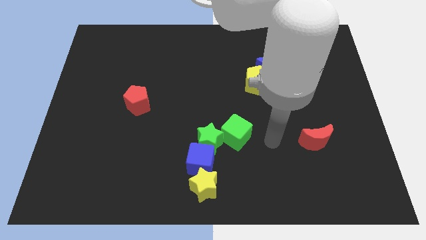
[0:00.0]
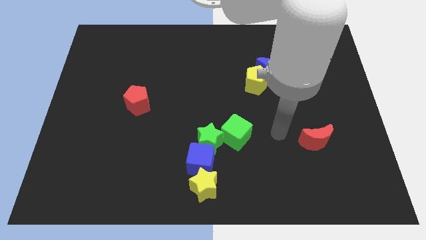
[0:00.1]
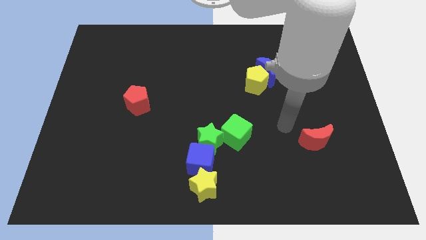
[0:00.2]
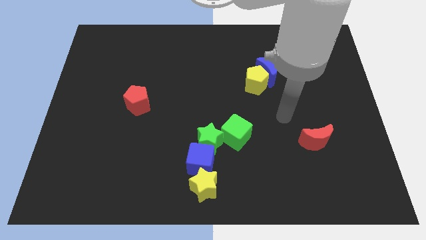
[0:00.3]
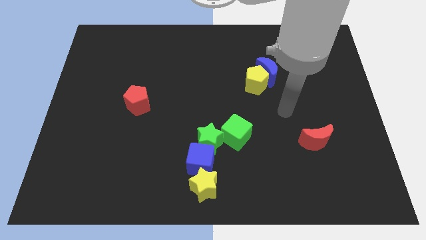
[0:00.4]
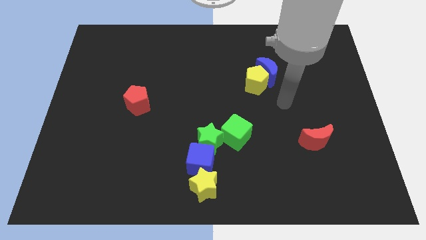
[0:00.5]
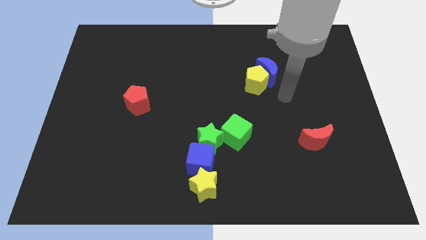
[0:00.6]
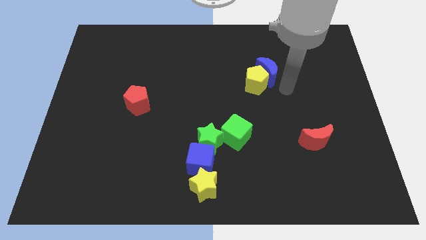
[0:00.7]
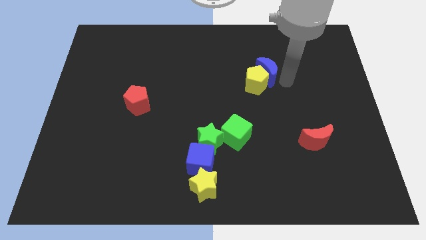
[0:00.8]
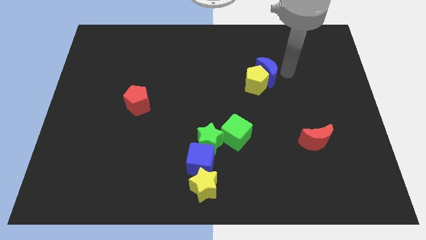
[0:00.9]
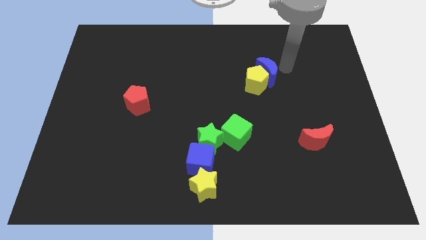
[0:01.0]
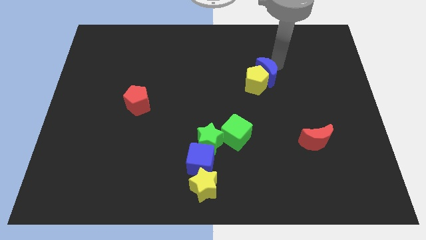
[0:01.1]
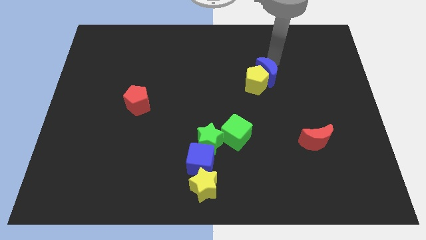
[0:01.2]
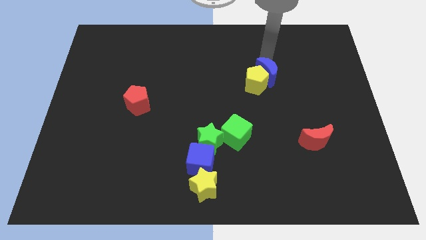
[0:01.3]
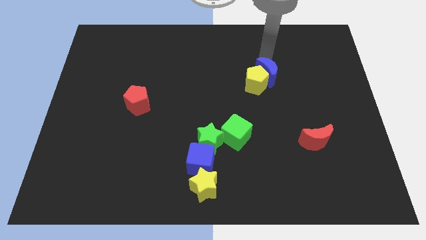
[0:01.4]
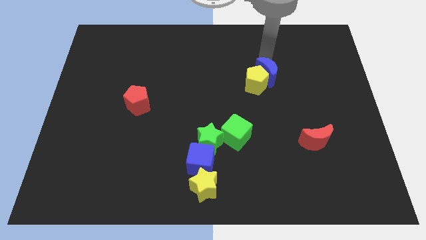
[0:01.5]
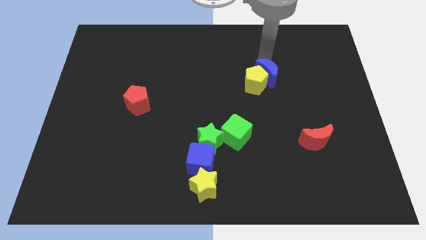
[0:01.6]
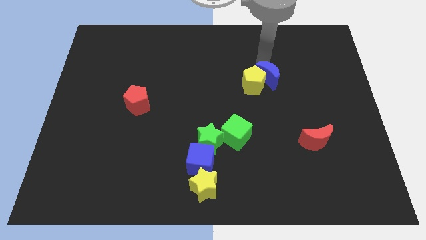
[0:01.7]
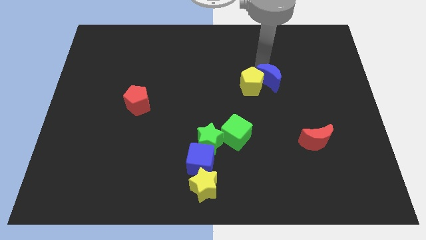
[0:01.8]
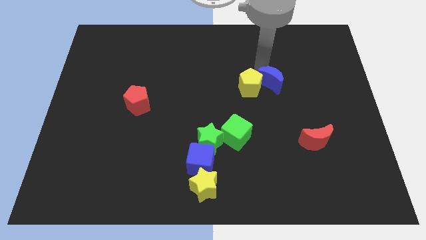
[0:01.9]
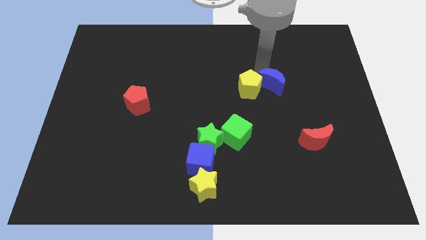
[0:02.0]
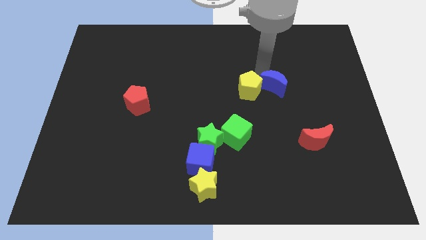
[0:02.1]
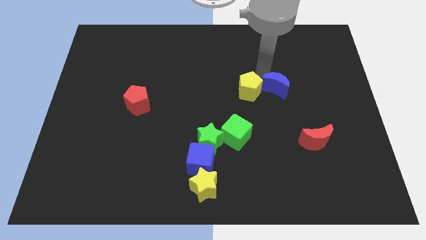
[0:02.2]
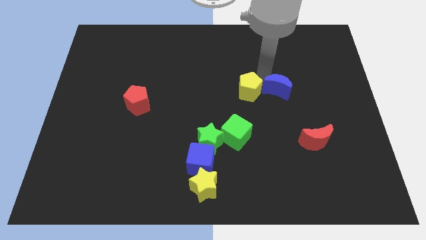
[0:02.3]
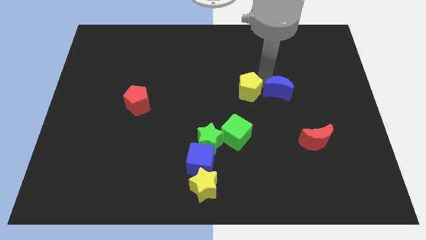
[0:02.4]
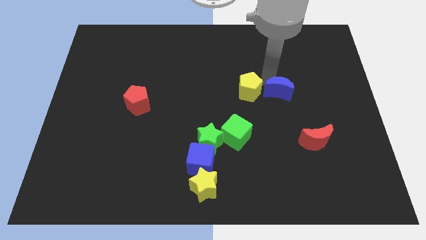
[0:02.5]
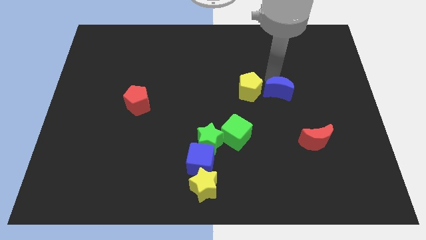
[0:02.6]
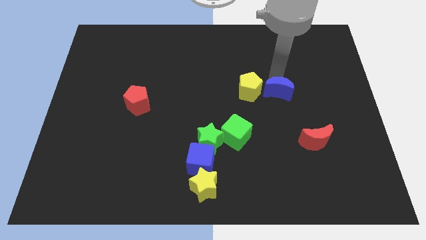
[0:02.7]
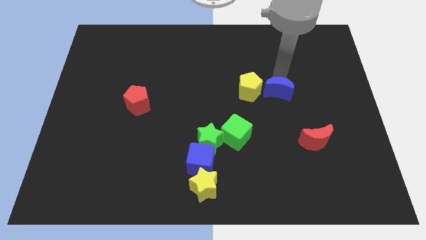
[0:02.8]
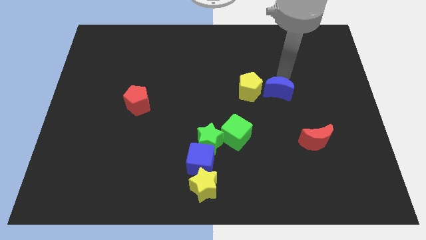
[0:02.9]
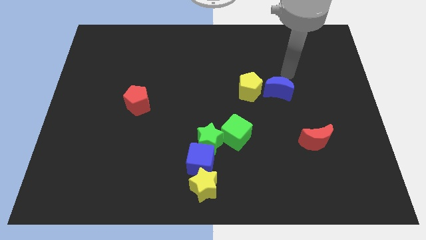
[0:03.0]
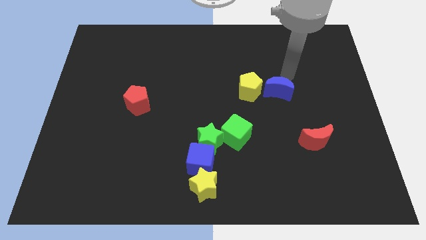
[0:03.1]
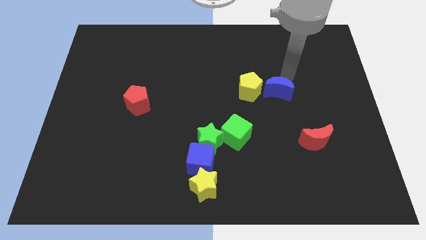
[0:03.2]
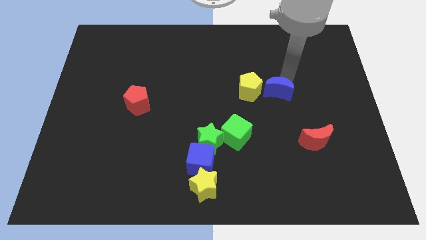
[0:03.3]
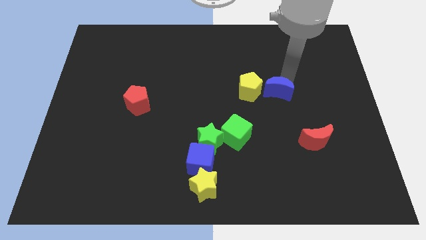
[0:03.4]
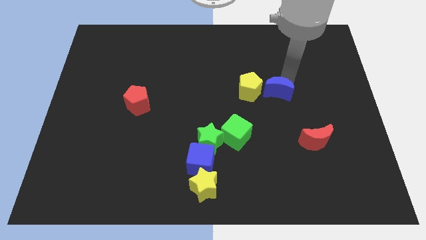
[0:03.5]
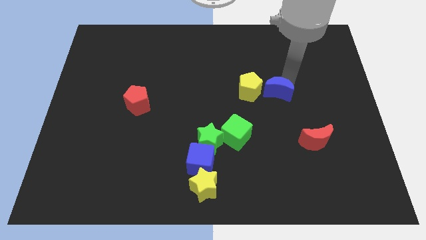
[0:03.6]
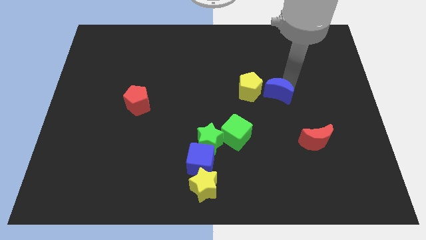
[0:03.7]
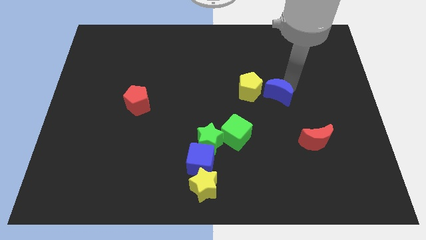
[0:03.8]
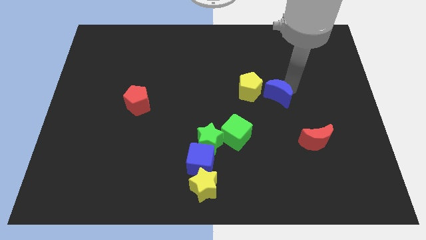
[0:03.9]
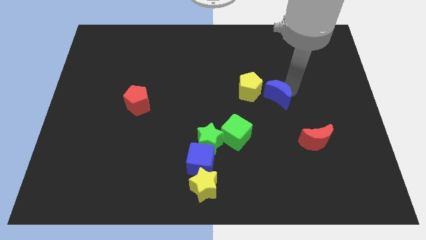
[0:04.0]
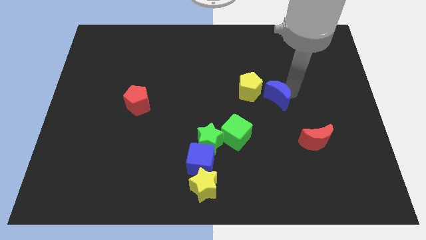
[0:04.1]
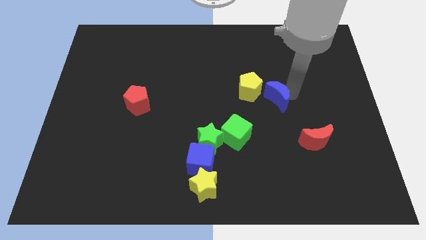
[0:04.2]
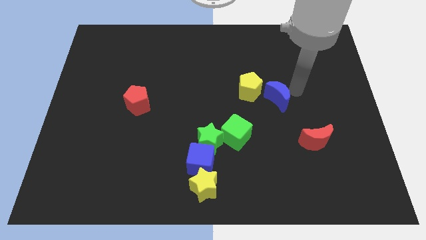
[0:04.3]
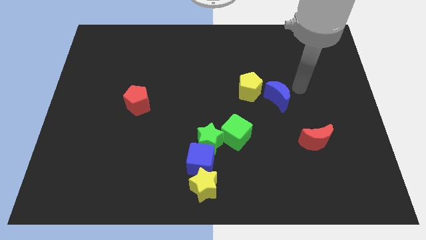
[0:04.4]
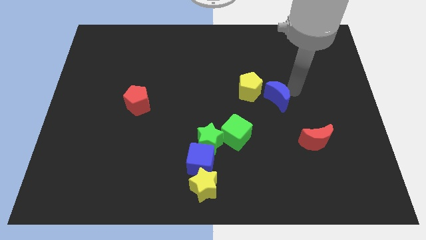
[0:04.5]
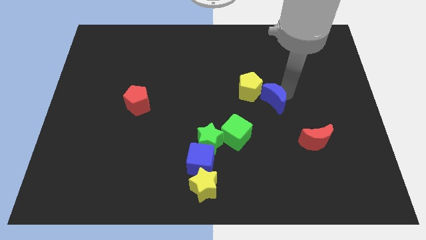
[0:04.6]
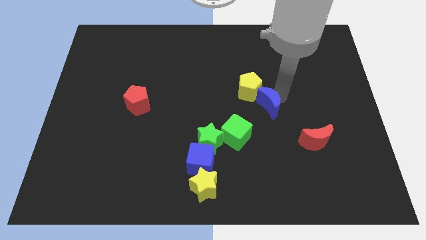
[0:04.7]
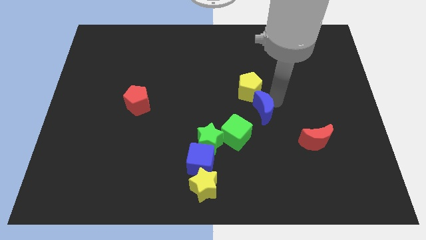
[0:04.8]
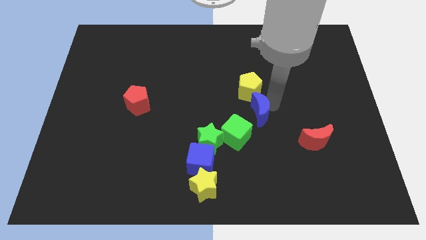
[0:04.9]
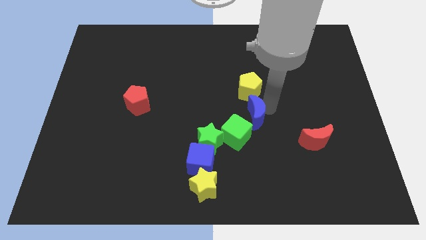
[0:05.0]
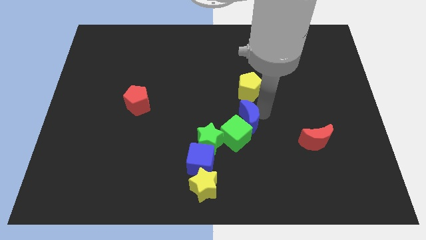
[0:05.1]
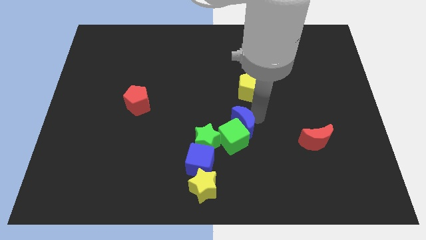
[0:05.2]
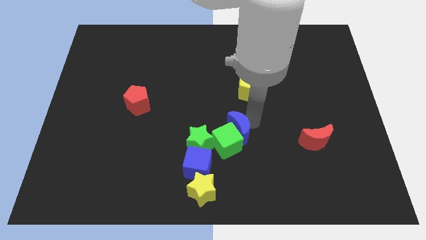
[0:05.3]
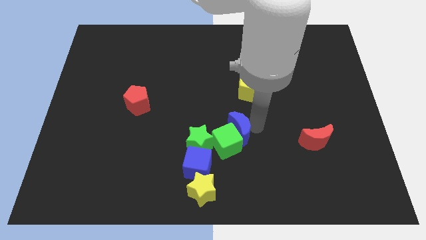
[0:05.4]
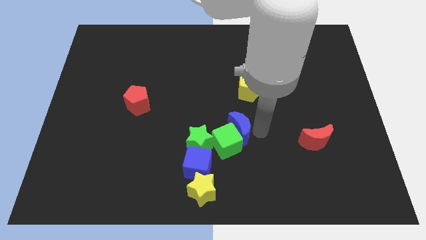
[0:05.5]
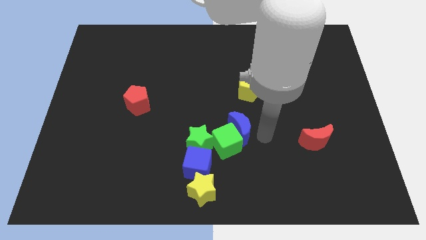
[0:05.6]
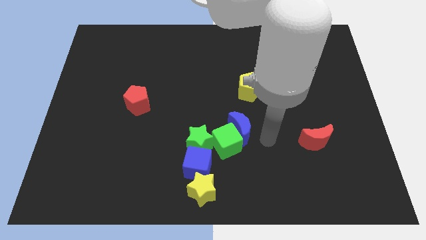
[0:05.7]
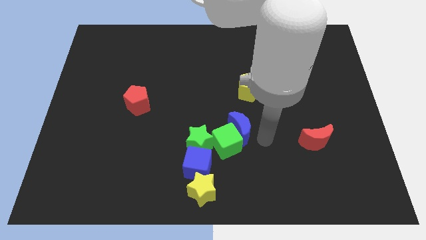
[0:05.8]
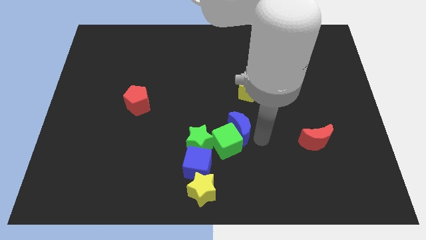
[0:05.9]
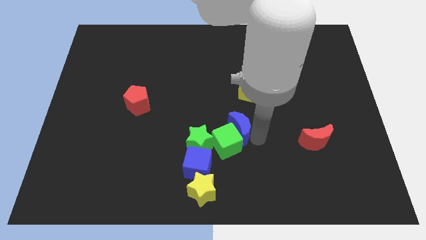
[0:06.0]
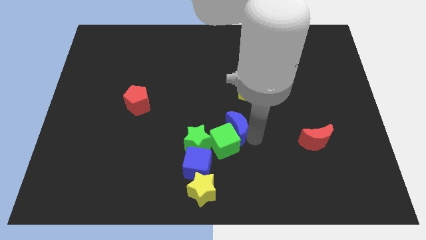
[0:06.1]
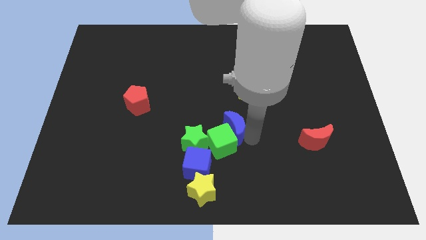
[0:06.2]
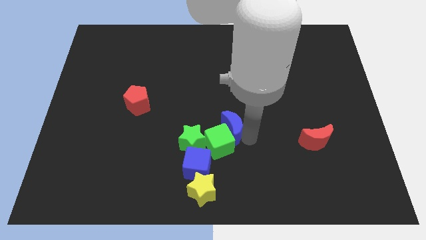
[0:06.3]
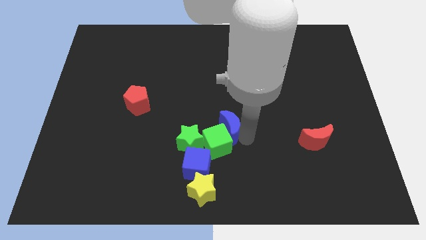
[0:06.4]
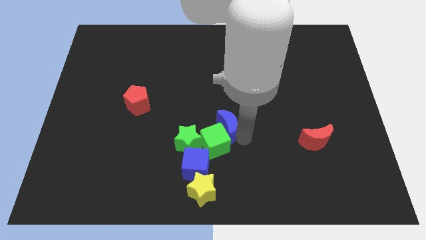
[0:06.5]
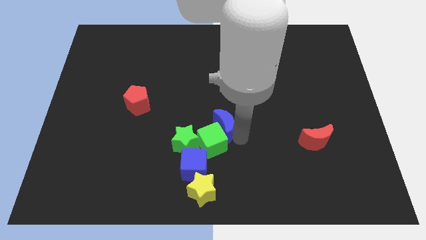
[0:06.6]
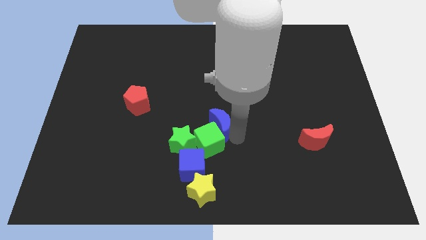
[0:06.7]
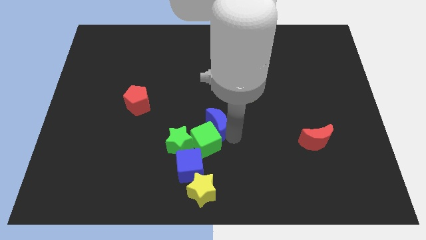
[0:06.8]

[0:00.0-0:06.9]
move the blue moon downwards and then to the left

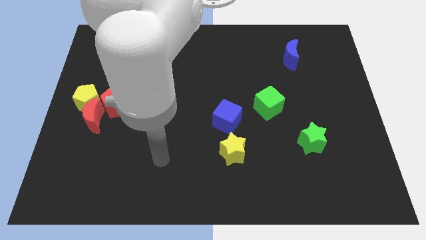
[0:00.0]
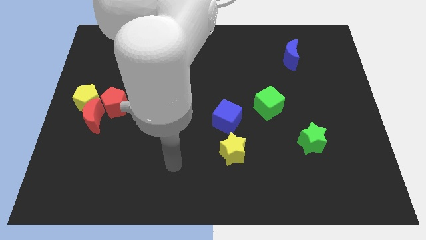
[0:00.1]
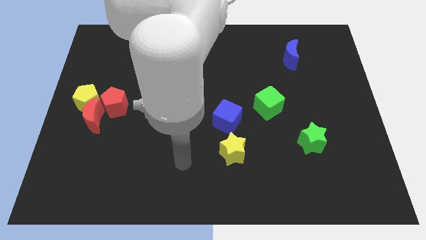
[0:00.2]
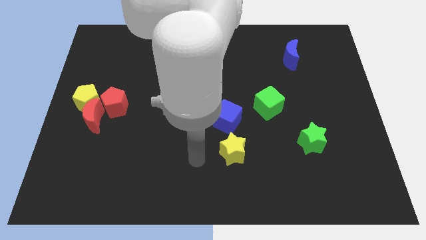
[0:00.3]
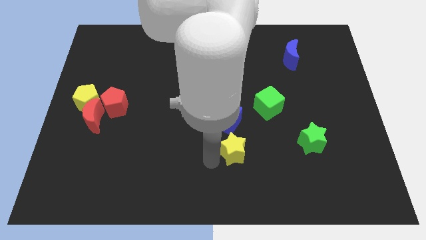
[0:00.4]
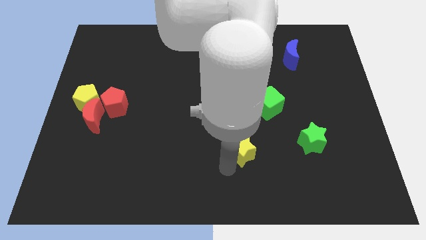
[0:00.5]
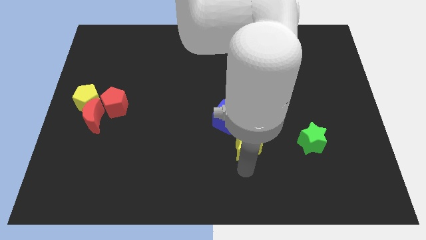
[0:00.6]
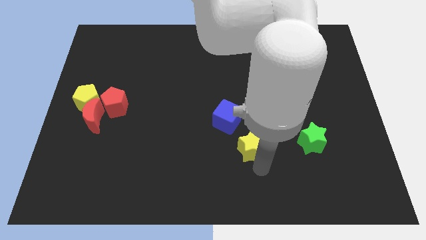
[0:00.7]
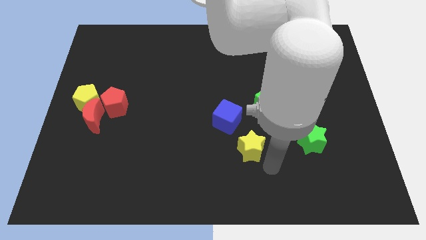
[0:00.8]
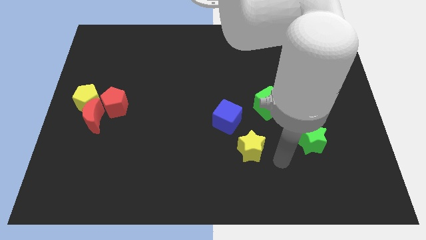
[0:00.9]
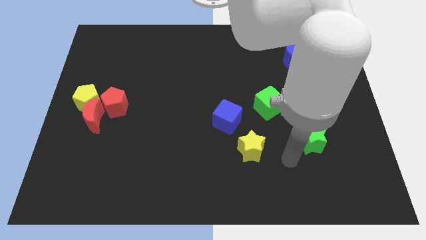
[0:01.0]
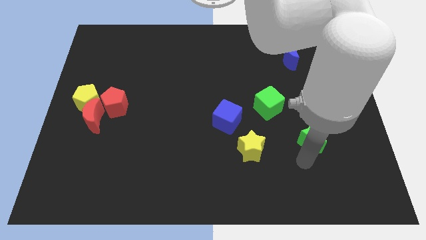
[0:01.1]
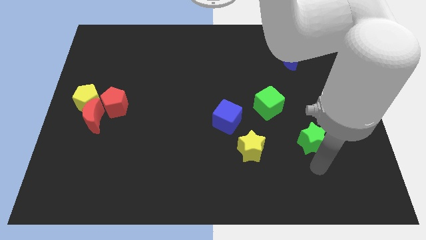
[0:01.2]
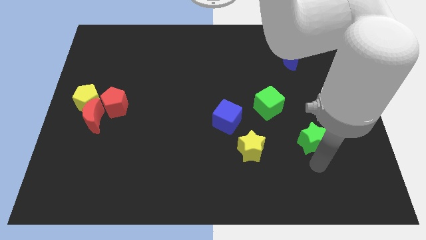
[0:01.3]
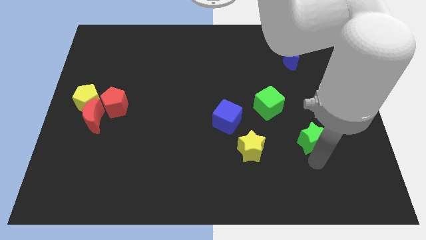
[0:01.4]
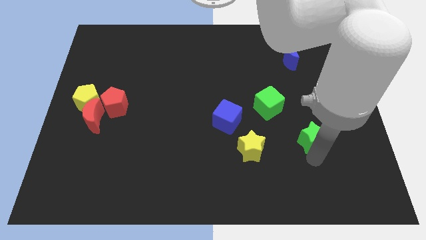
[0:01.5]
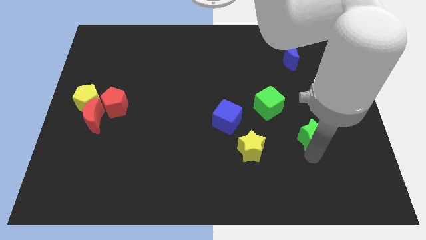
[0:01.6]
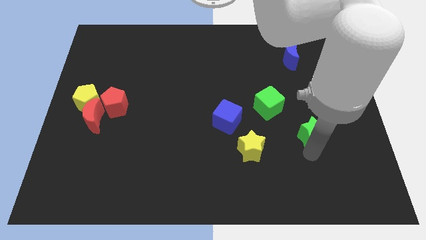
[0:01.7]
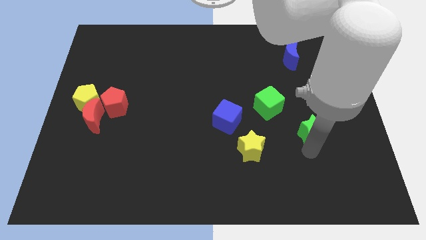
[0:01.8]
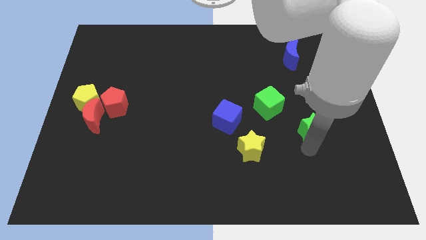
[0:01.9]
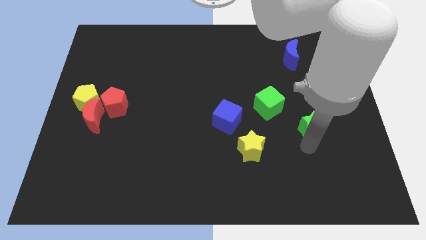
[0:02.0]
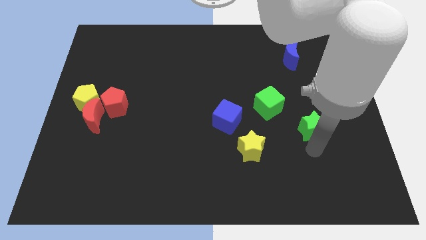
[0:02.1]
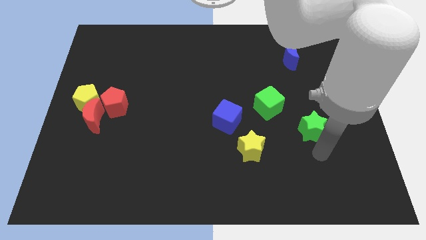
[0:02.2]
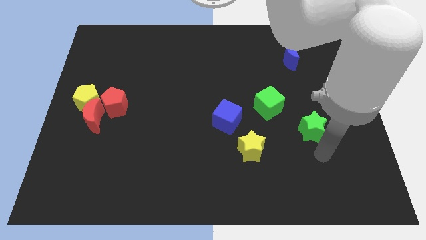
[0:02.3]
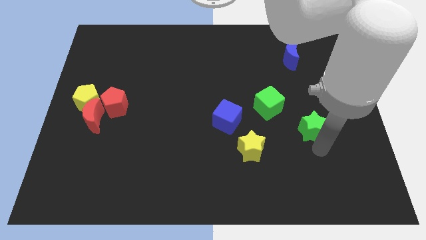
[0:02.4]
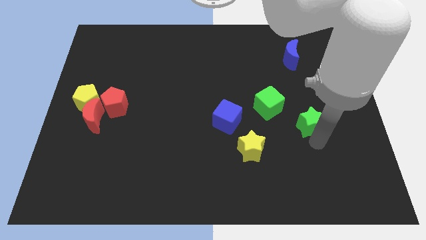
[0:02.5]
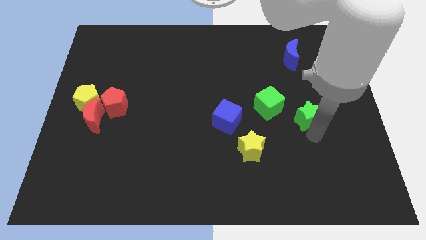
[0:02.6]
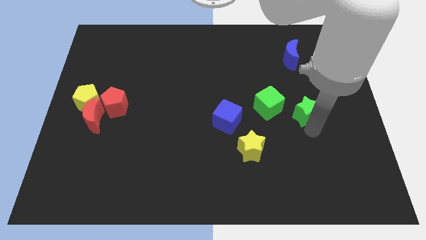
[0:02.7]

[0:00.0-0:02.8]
slightly slide the green star upwards
